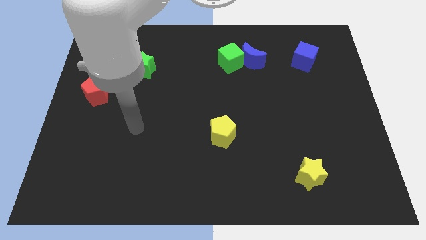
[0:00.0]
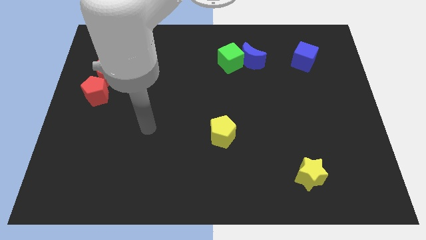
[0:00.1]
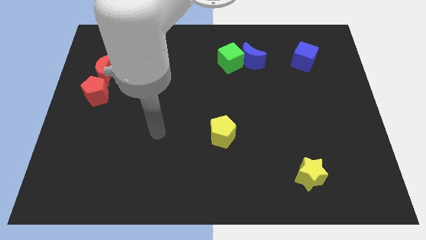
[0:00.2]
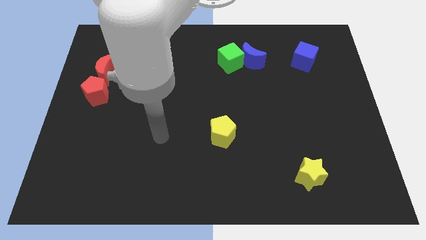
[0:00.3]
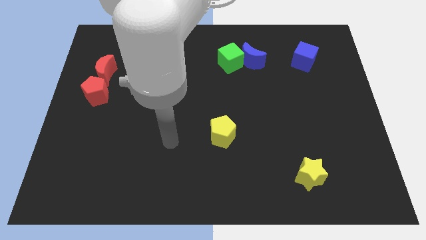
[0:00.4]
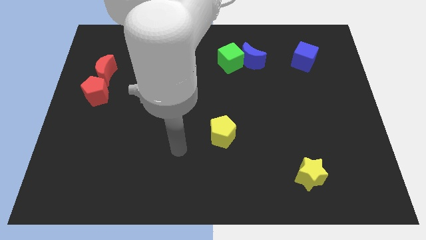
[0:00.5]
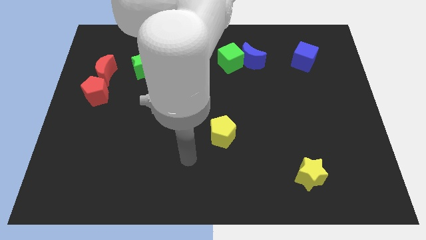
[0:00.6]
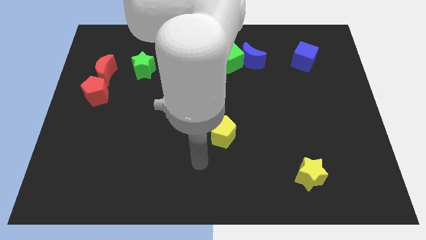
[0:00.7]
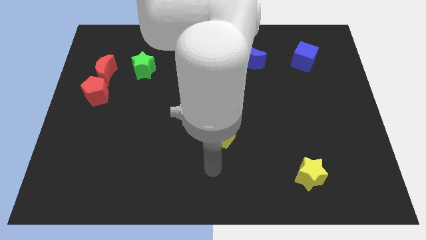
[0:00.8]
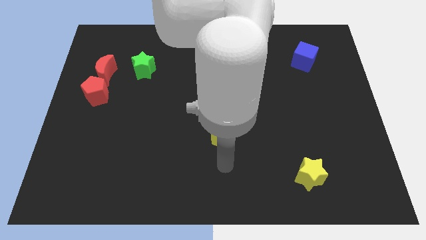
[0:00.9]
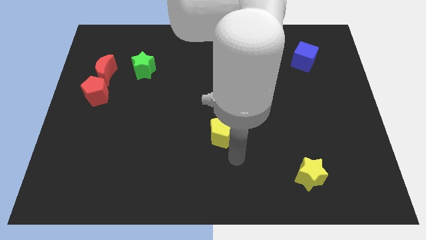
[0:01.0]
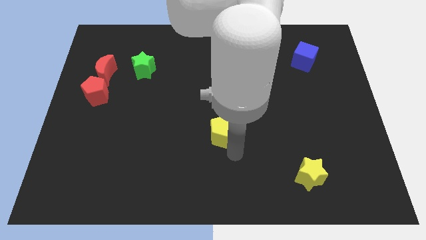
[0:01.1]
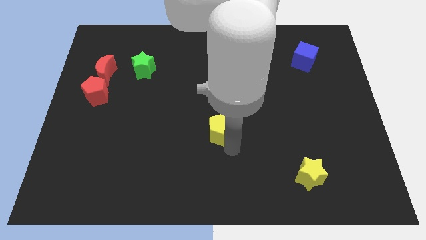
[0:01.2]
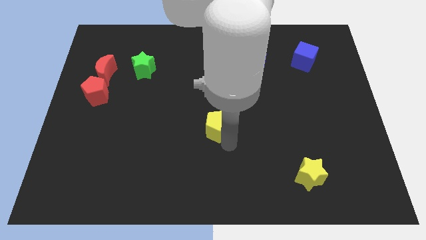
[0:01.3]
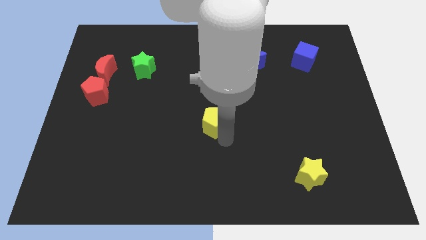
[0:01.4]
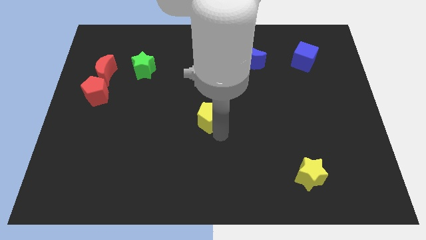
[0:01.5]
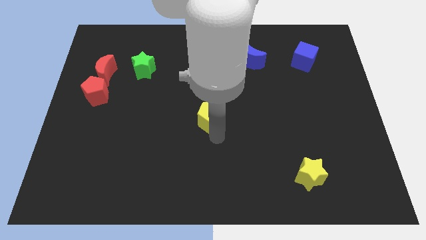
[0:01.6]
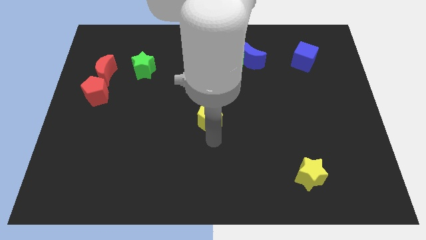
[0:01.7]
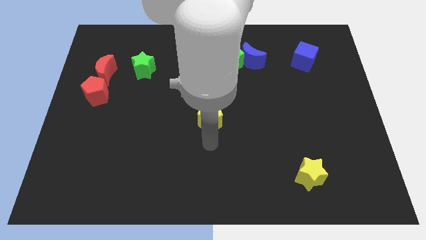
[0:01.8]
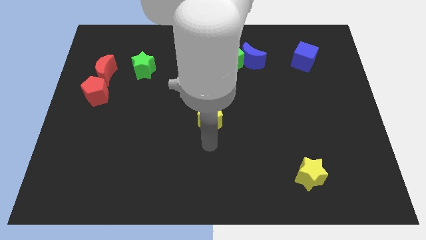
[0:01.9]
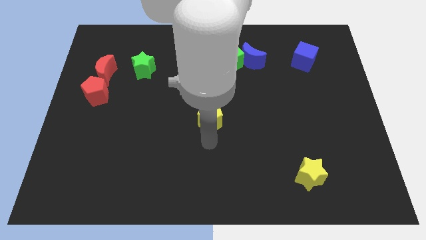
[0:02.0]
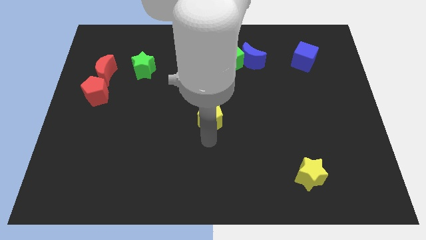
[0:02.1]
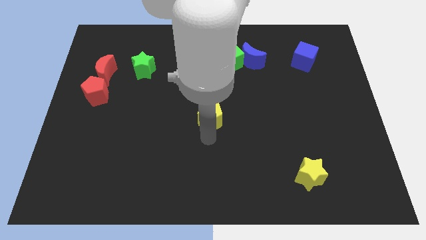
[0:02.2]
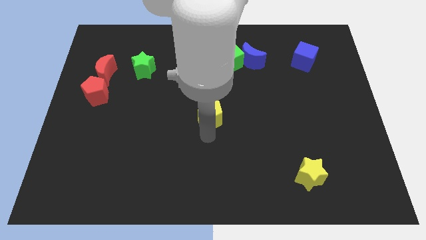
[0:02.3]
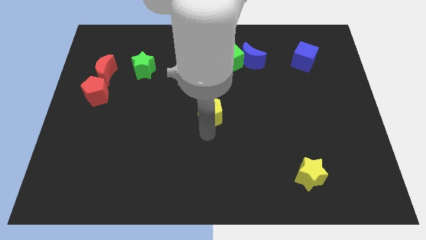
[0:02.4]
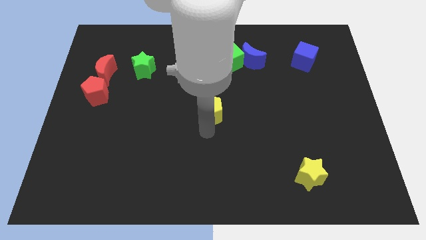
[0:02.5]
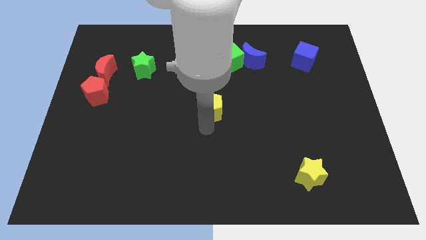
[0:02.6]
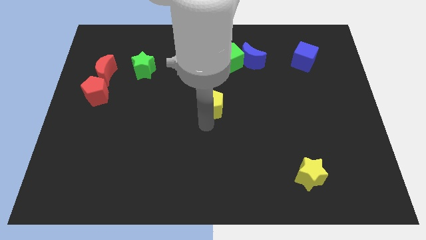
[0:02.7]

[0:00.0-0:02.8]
move the yellow pentagon slightly upwards

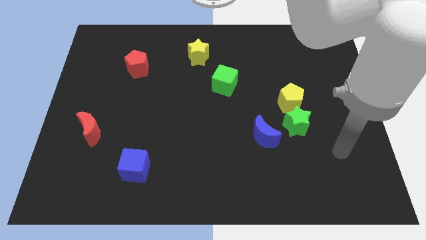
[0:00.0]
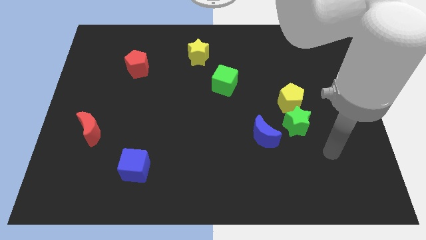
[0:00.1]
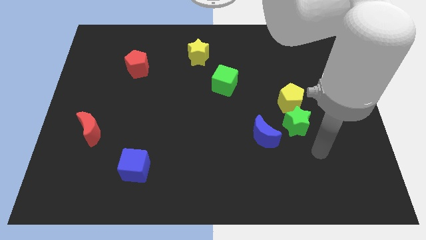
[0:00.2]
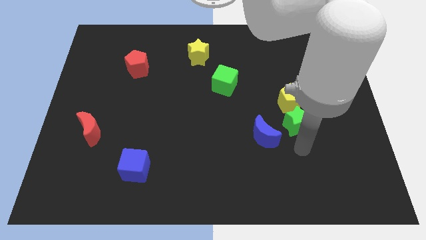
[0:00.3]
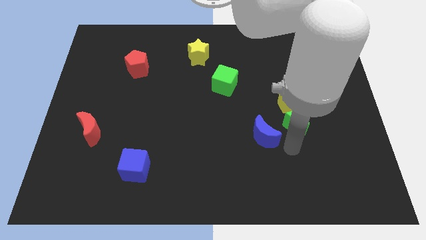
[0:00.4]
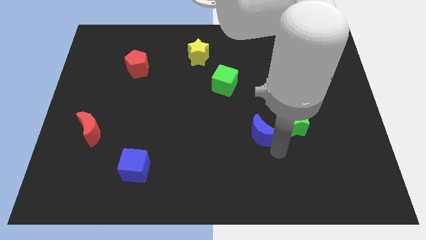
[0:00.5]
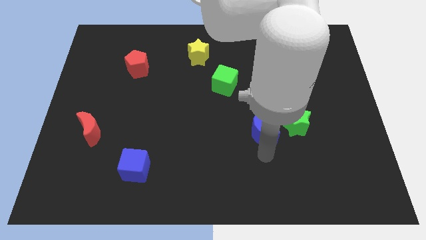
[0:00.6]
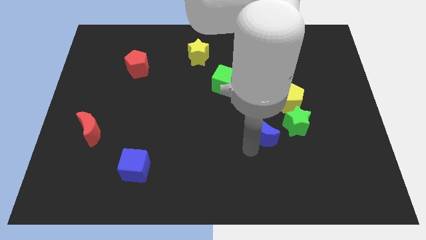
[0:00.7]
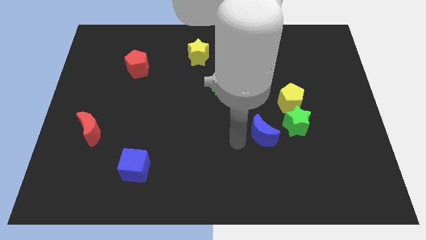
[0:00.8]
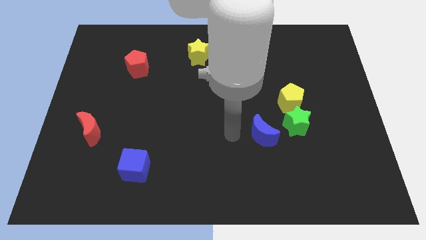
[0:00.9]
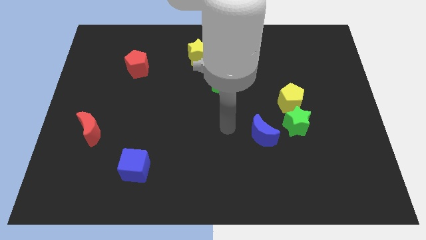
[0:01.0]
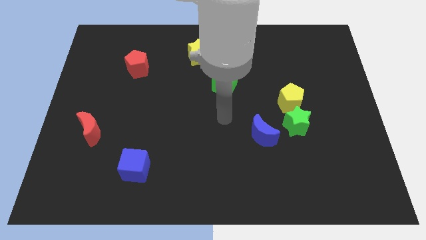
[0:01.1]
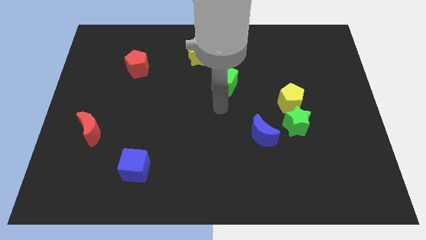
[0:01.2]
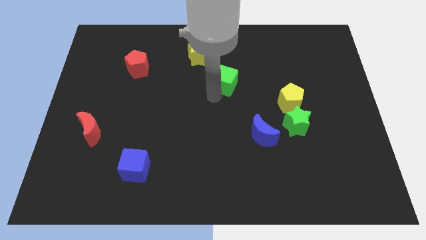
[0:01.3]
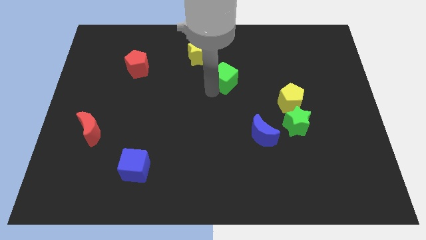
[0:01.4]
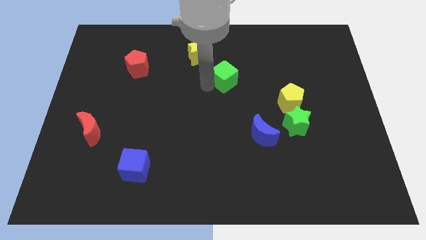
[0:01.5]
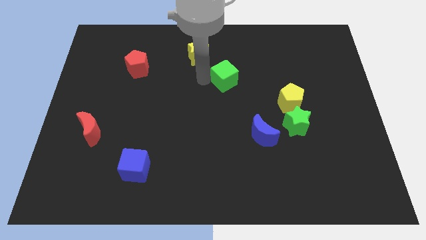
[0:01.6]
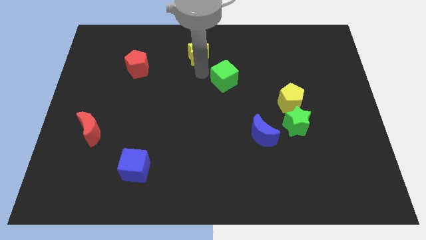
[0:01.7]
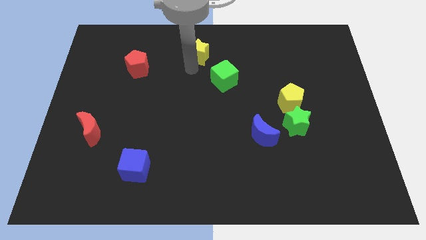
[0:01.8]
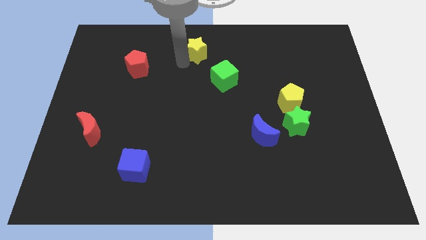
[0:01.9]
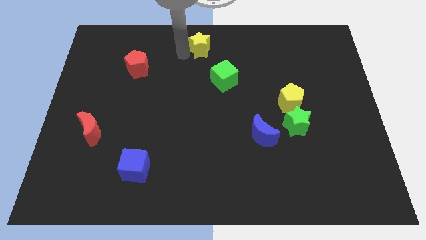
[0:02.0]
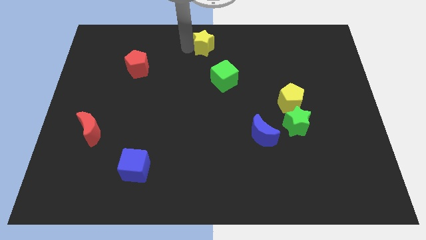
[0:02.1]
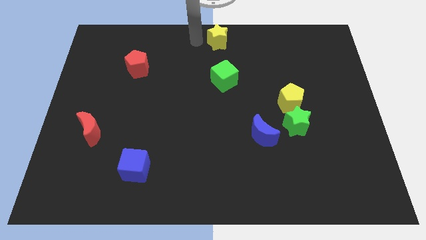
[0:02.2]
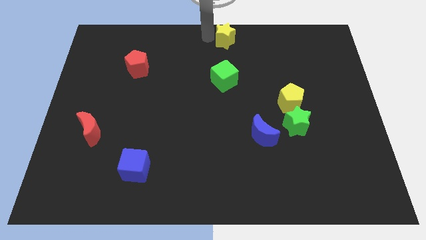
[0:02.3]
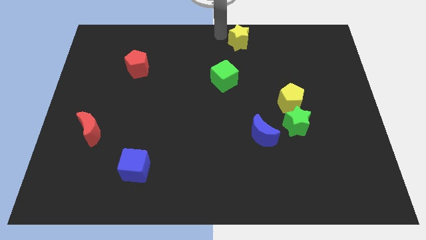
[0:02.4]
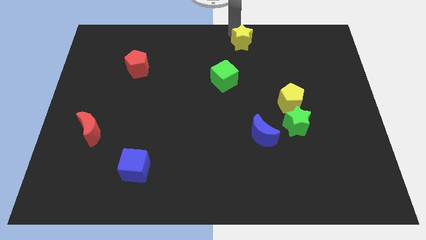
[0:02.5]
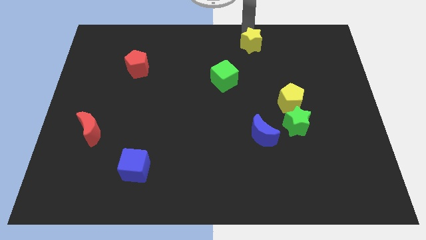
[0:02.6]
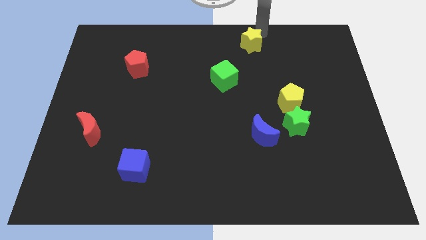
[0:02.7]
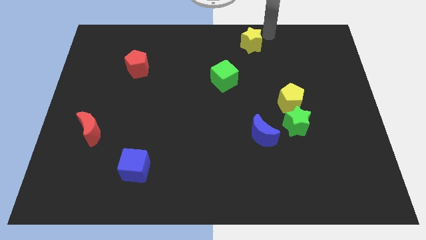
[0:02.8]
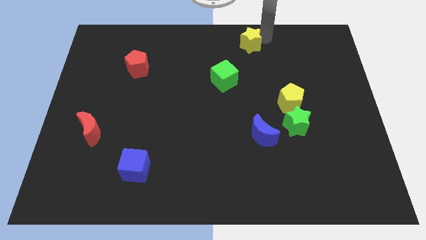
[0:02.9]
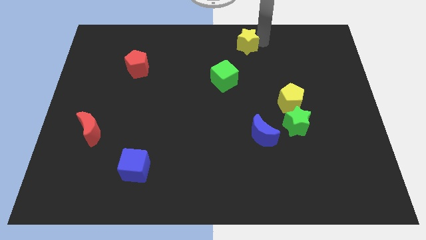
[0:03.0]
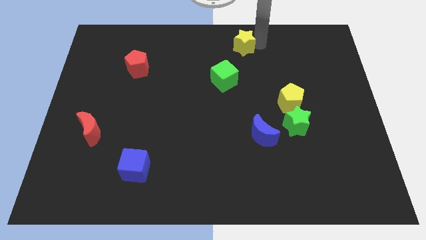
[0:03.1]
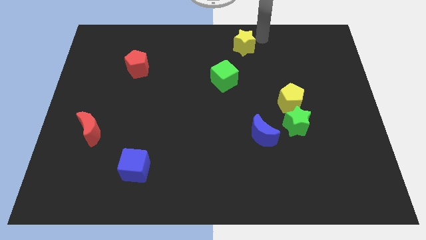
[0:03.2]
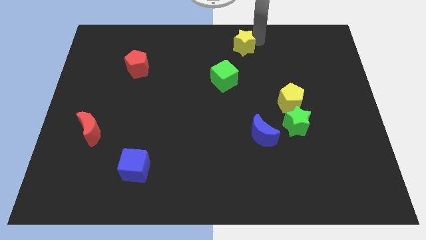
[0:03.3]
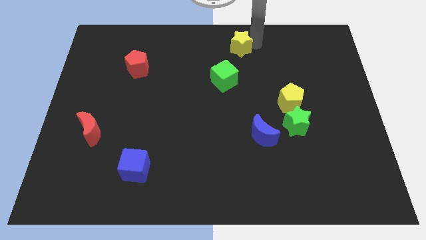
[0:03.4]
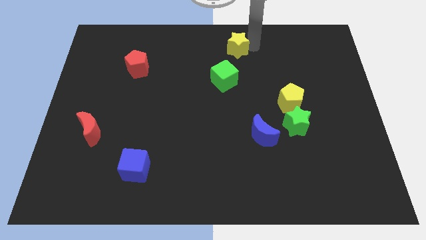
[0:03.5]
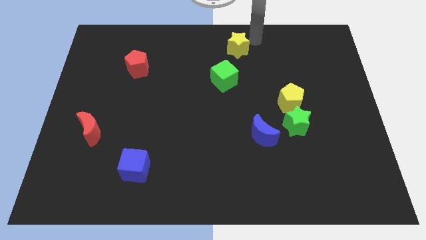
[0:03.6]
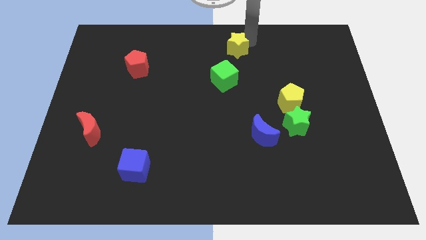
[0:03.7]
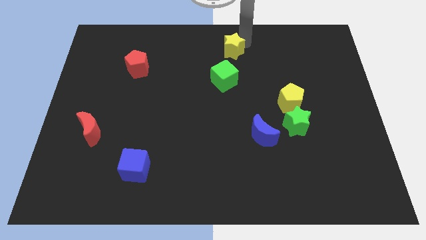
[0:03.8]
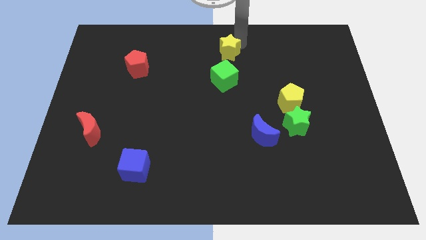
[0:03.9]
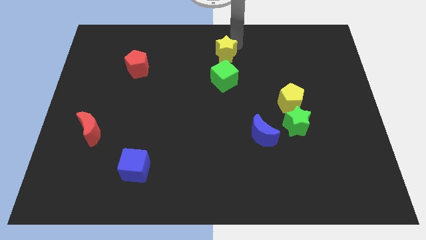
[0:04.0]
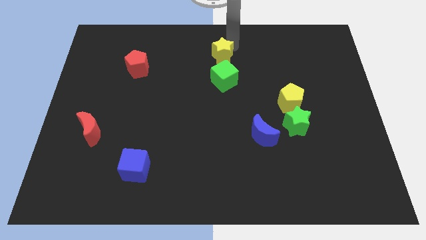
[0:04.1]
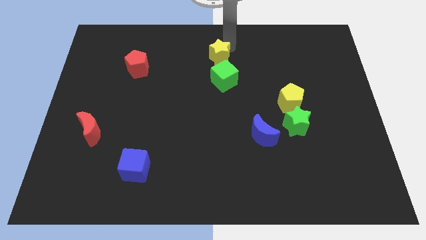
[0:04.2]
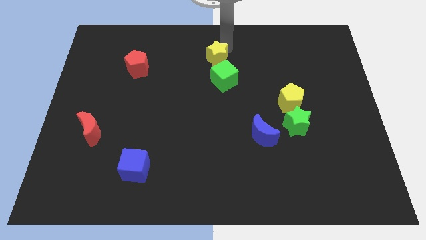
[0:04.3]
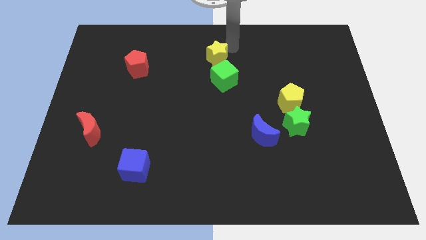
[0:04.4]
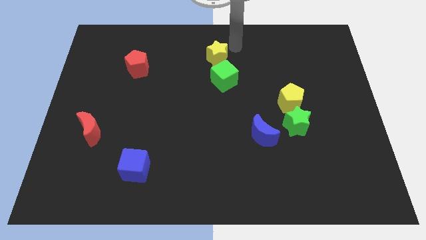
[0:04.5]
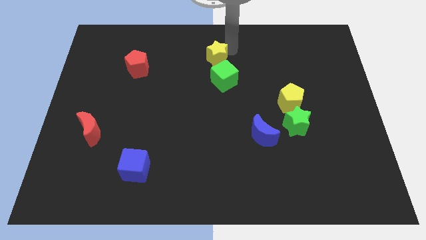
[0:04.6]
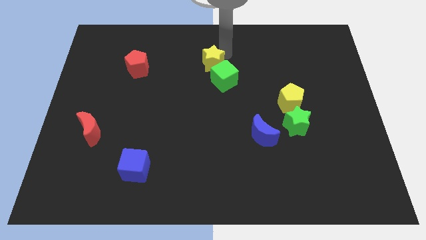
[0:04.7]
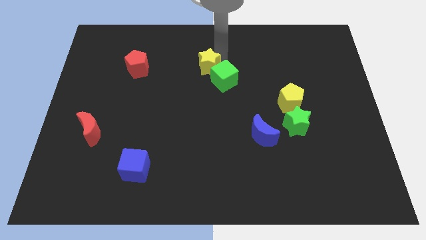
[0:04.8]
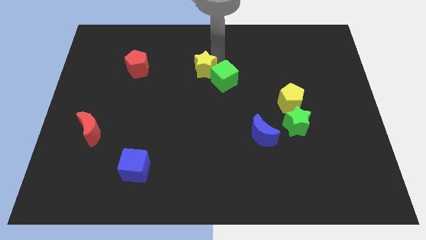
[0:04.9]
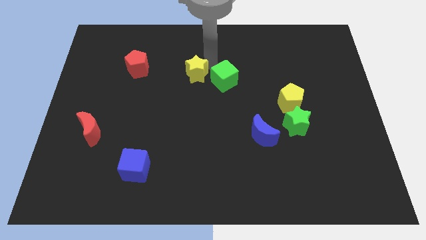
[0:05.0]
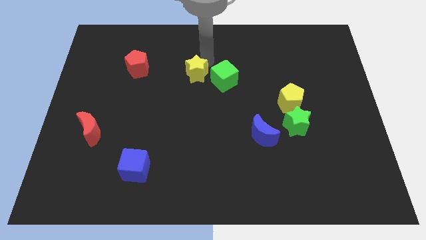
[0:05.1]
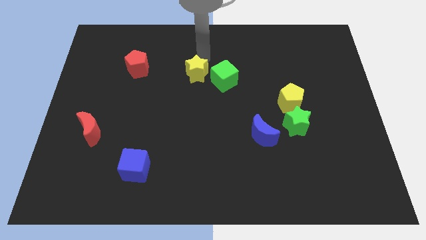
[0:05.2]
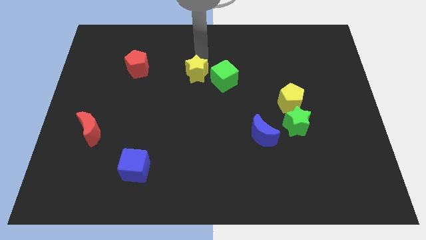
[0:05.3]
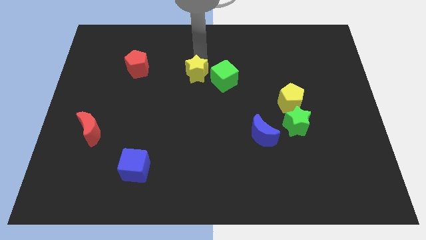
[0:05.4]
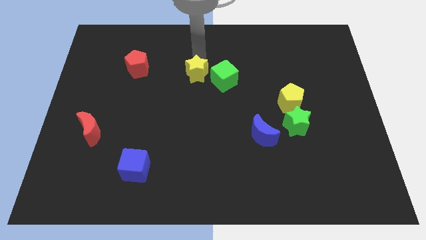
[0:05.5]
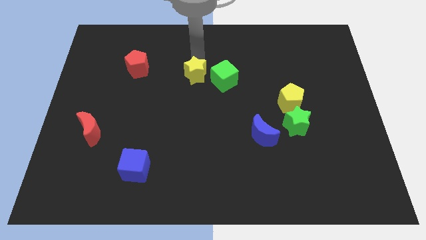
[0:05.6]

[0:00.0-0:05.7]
push the yellow star down a little
